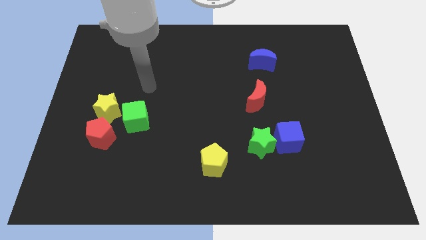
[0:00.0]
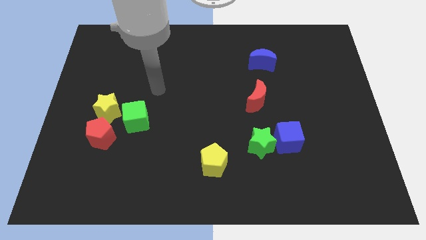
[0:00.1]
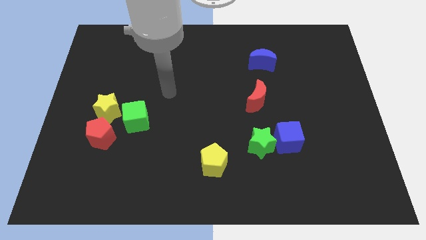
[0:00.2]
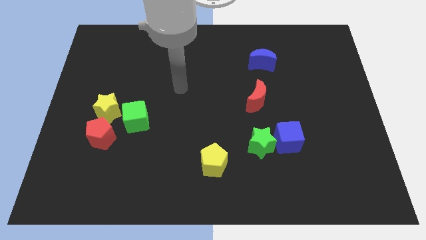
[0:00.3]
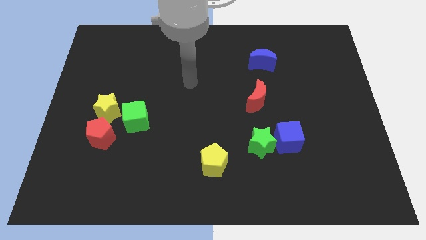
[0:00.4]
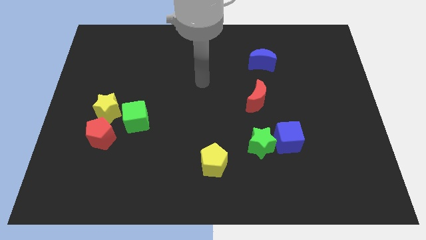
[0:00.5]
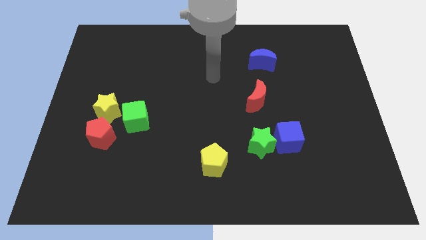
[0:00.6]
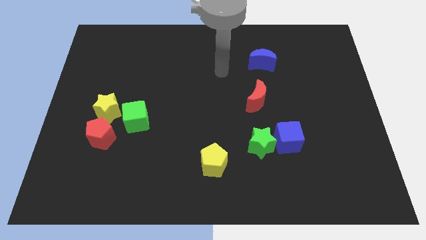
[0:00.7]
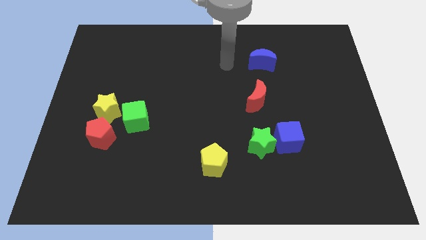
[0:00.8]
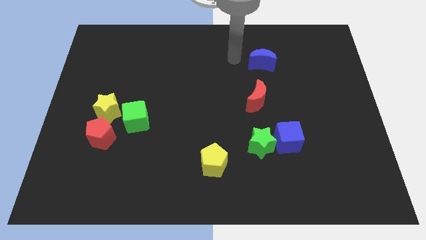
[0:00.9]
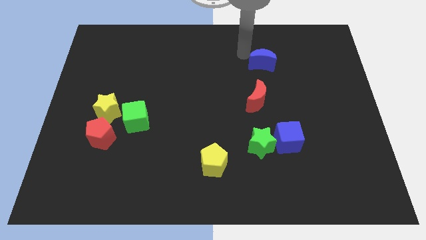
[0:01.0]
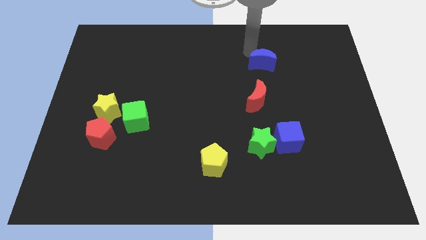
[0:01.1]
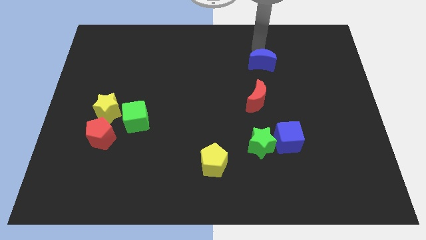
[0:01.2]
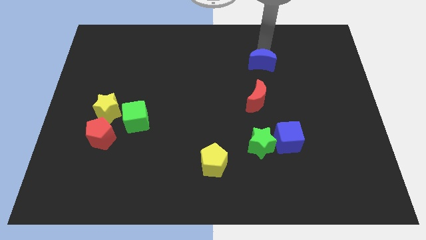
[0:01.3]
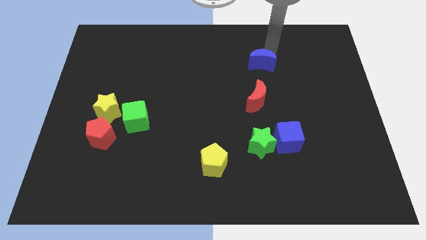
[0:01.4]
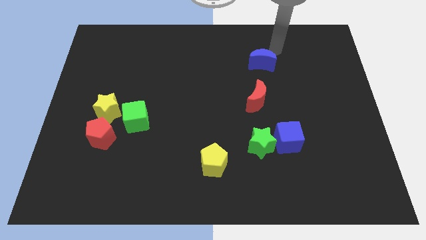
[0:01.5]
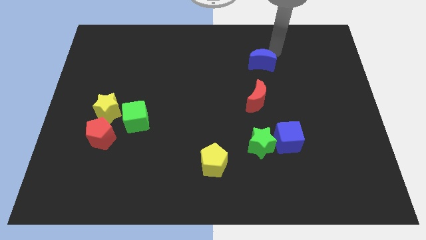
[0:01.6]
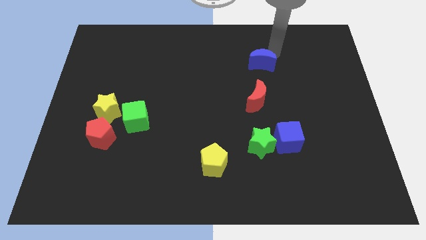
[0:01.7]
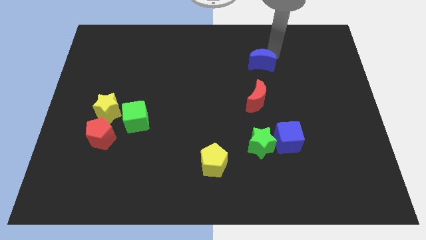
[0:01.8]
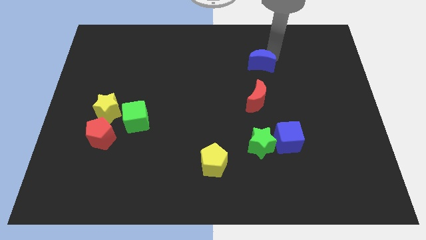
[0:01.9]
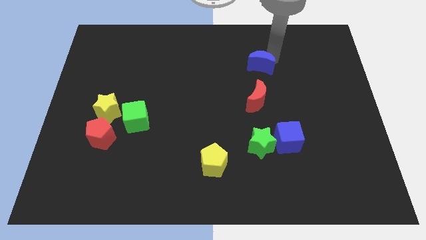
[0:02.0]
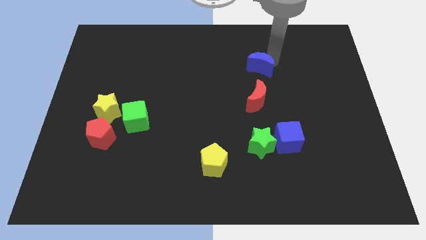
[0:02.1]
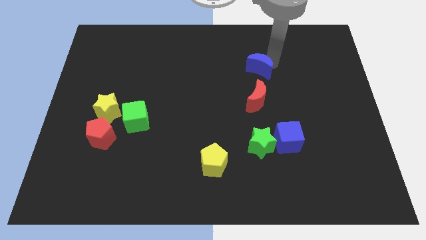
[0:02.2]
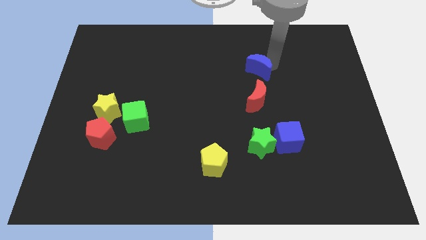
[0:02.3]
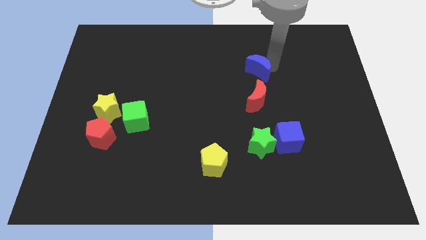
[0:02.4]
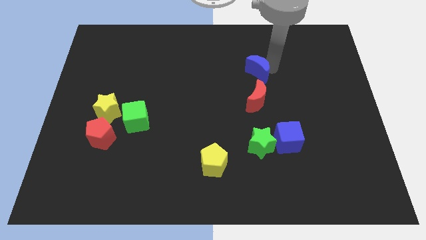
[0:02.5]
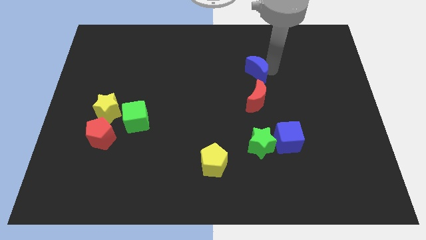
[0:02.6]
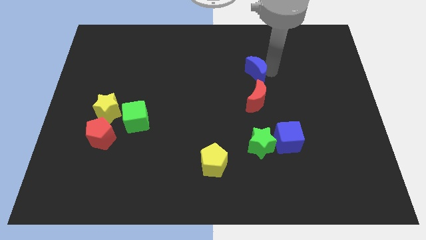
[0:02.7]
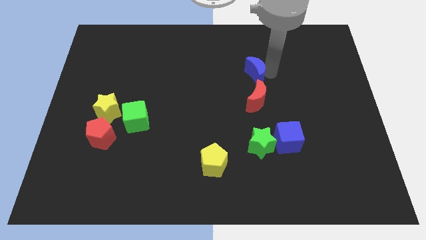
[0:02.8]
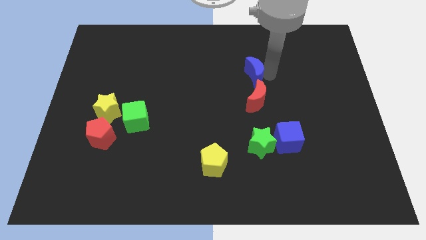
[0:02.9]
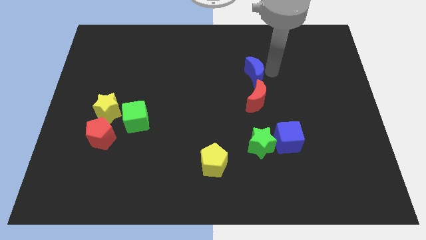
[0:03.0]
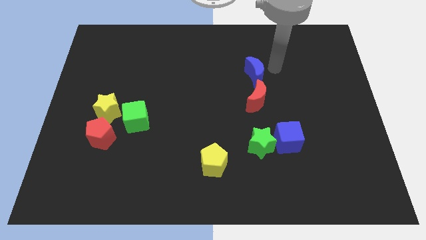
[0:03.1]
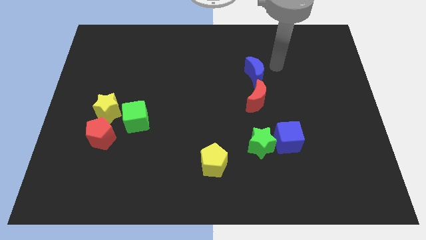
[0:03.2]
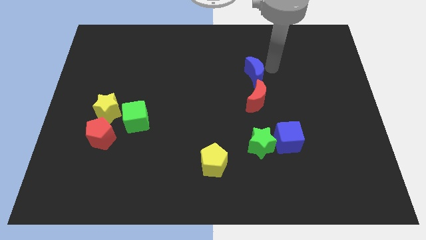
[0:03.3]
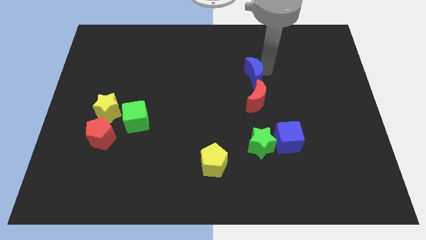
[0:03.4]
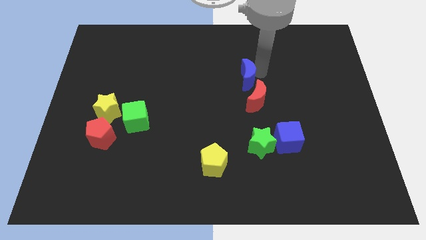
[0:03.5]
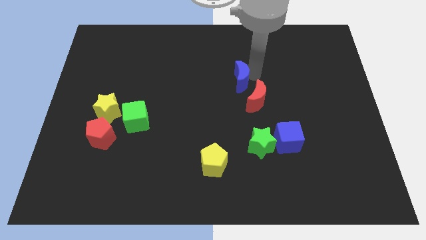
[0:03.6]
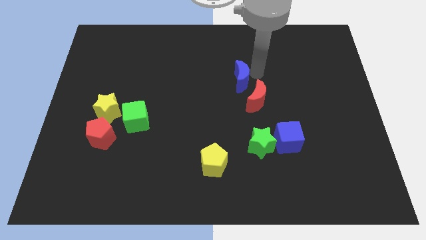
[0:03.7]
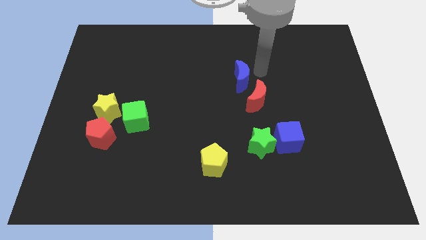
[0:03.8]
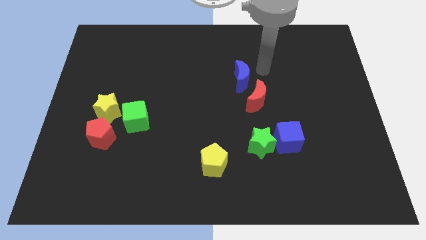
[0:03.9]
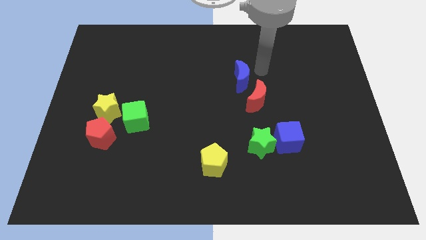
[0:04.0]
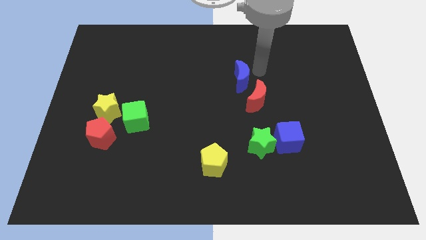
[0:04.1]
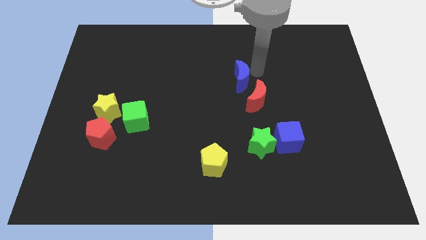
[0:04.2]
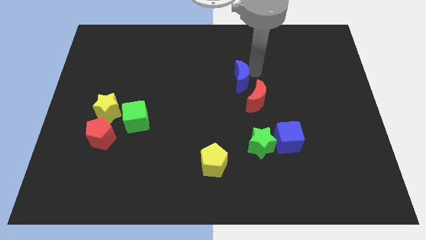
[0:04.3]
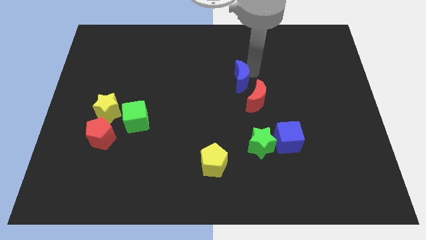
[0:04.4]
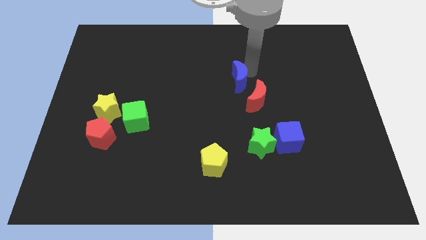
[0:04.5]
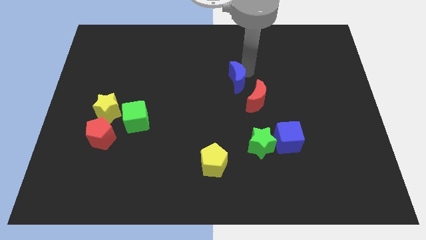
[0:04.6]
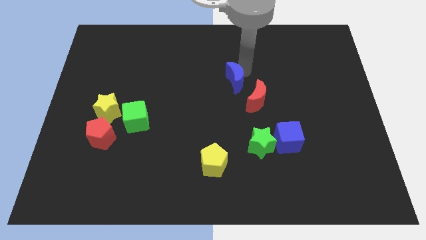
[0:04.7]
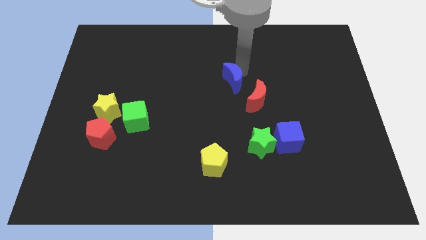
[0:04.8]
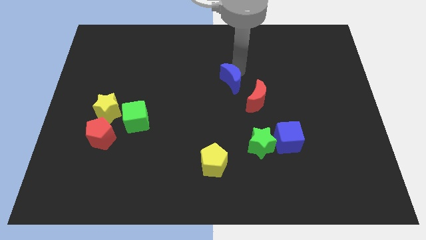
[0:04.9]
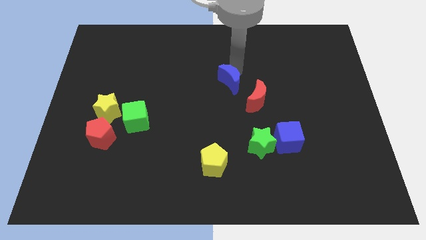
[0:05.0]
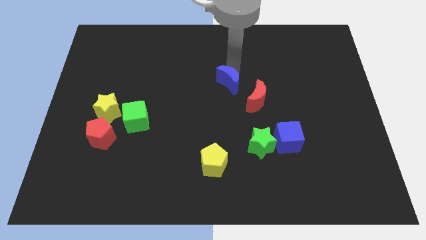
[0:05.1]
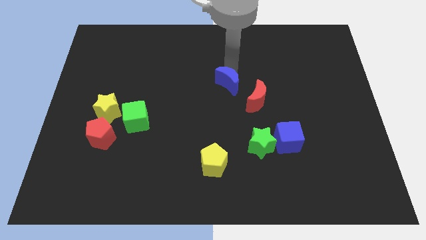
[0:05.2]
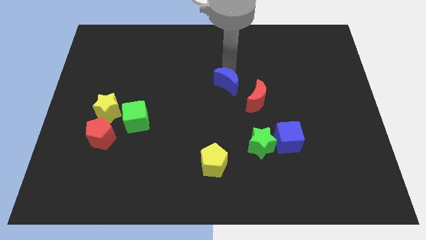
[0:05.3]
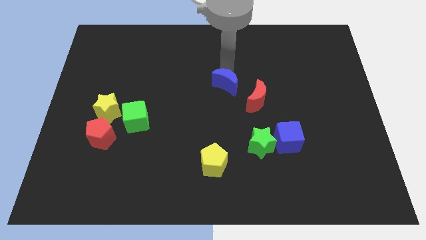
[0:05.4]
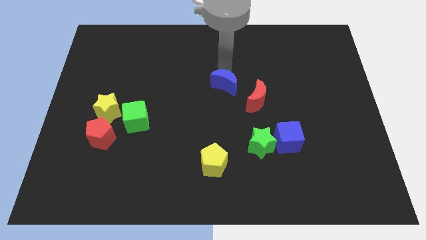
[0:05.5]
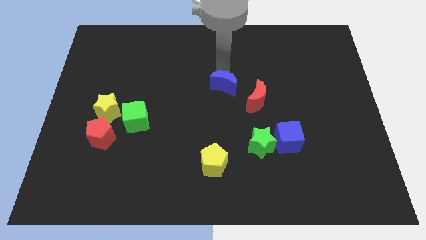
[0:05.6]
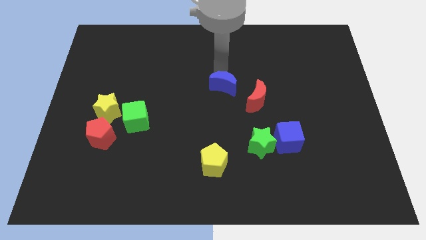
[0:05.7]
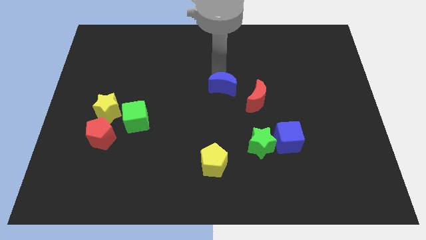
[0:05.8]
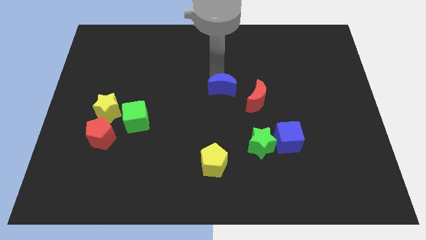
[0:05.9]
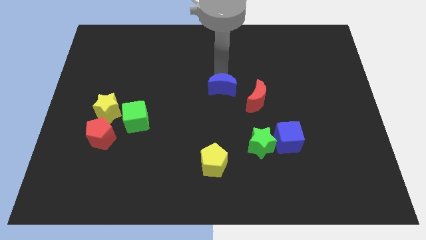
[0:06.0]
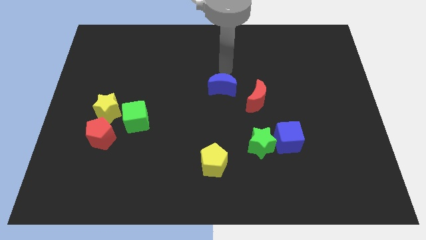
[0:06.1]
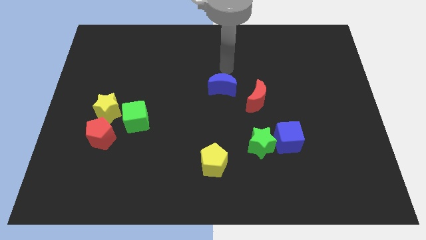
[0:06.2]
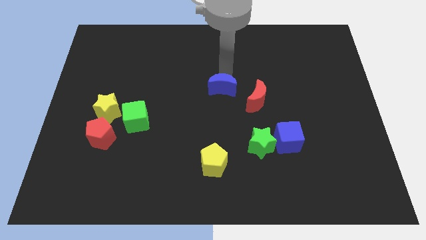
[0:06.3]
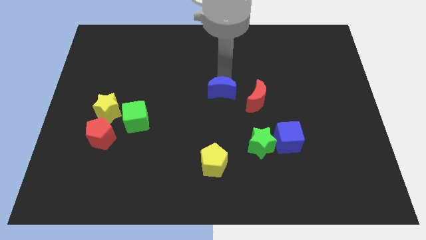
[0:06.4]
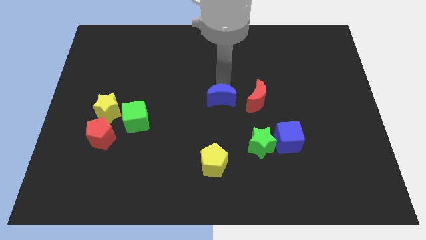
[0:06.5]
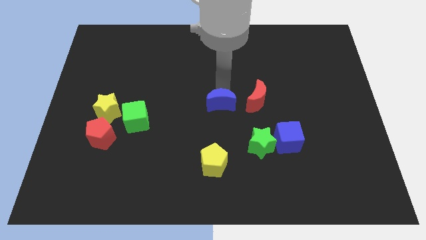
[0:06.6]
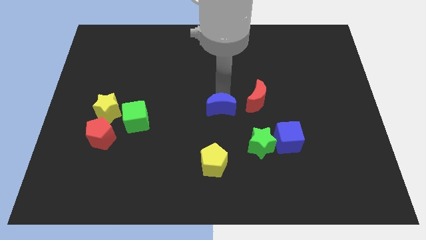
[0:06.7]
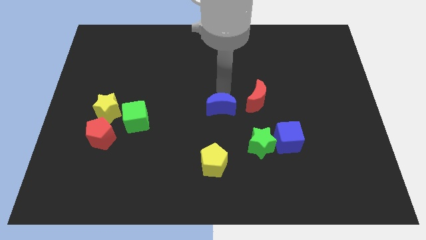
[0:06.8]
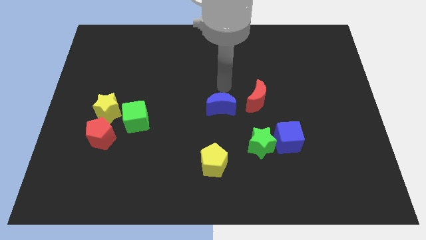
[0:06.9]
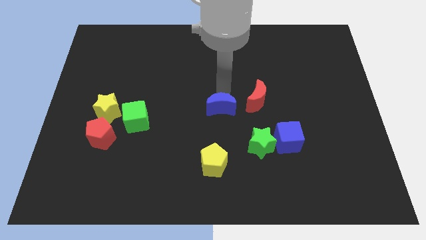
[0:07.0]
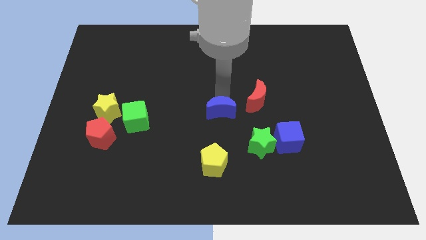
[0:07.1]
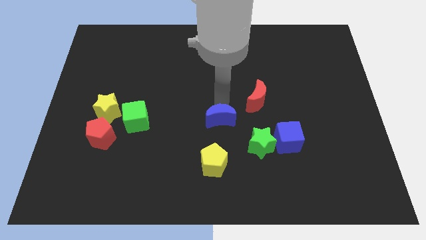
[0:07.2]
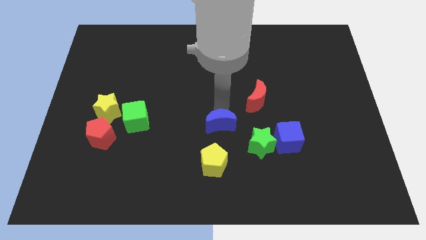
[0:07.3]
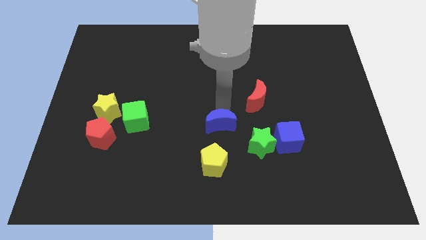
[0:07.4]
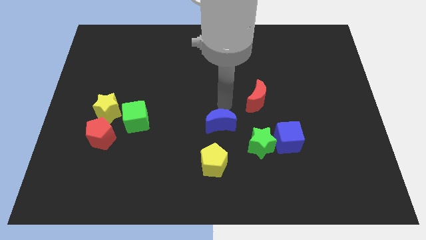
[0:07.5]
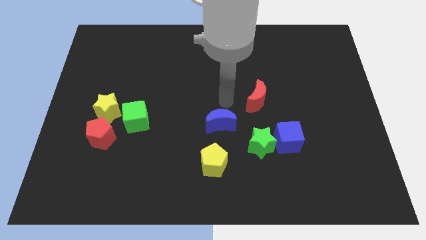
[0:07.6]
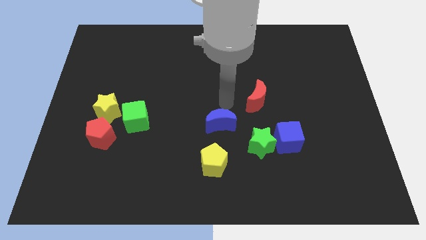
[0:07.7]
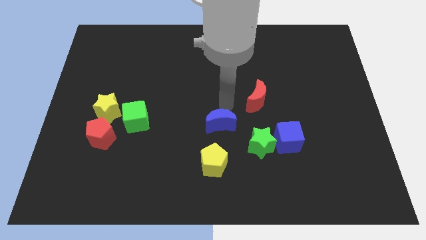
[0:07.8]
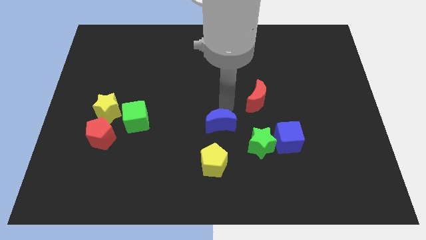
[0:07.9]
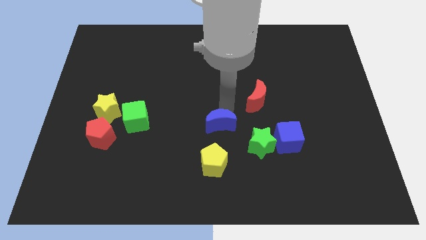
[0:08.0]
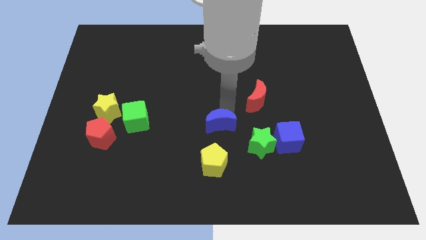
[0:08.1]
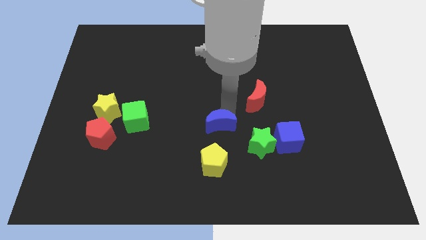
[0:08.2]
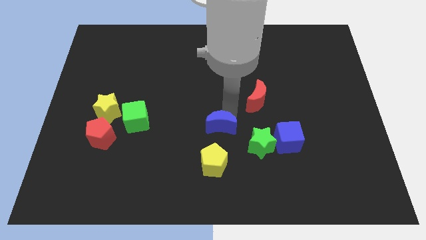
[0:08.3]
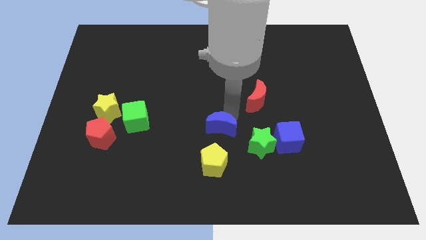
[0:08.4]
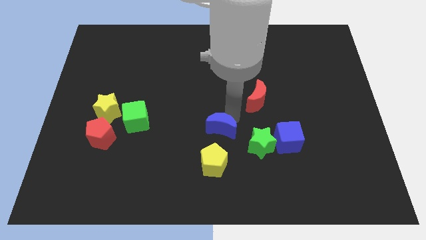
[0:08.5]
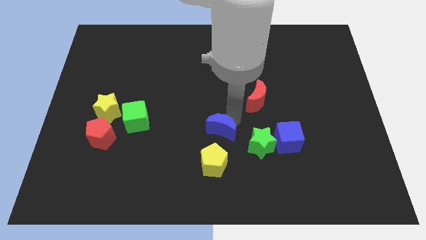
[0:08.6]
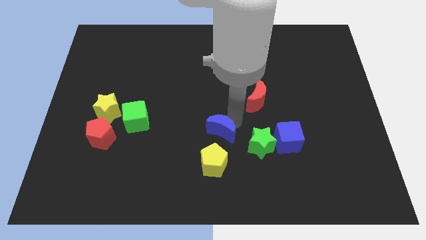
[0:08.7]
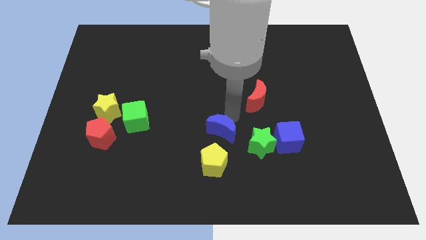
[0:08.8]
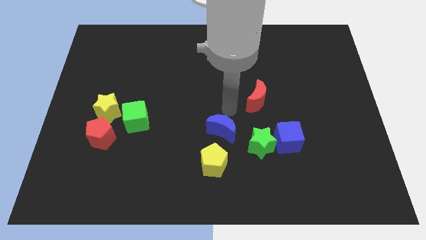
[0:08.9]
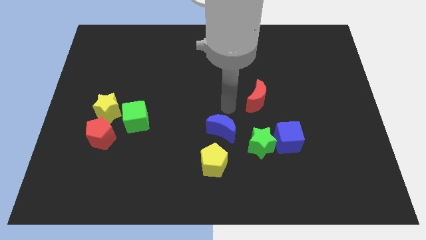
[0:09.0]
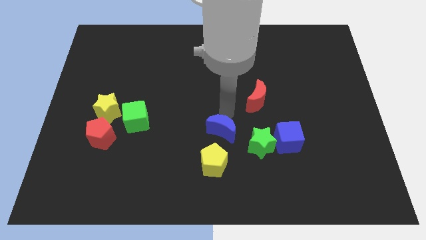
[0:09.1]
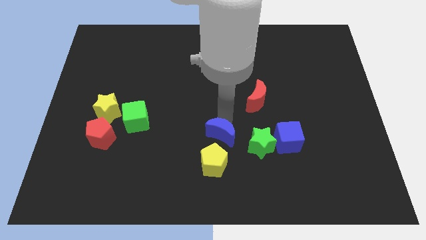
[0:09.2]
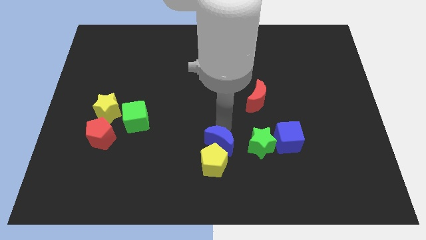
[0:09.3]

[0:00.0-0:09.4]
push the blue moon to the yellow pentagon
